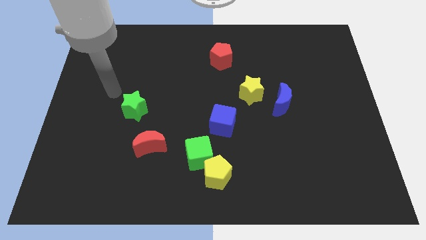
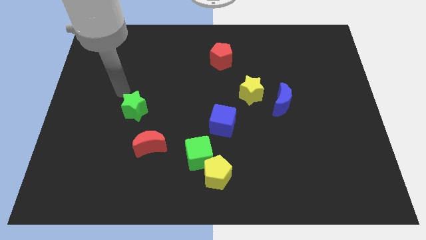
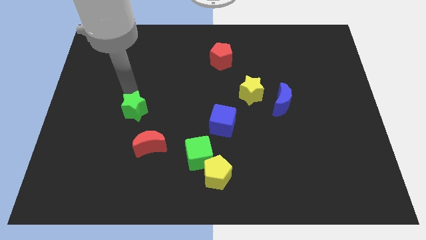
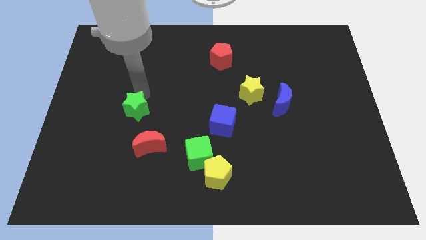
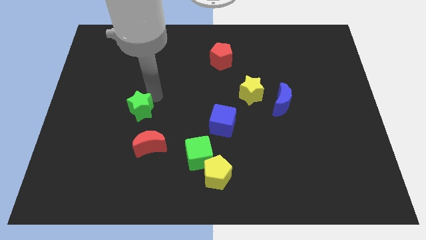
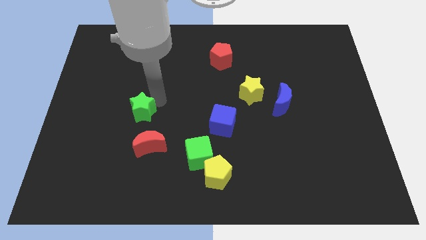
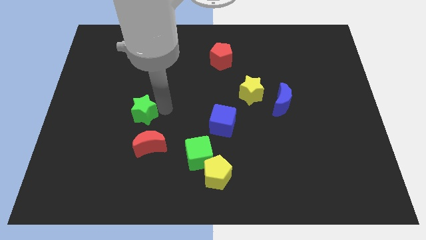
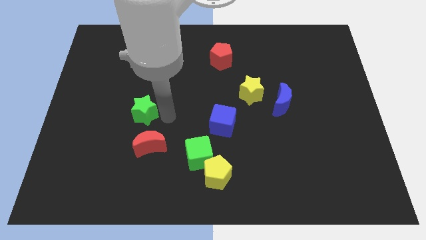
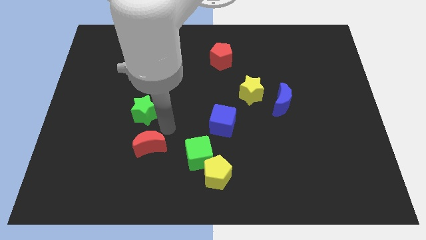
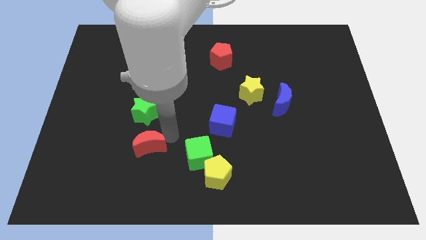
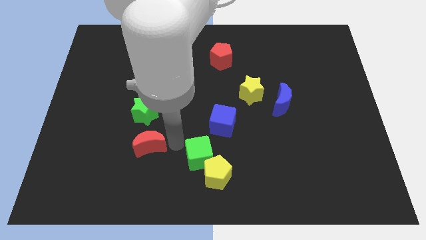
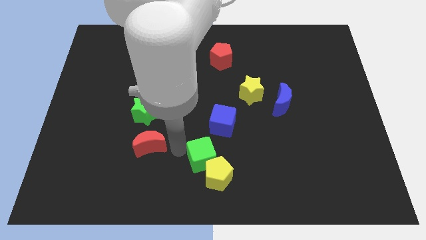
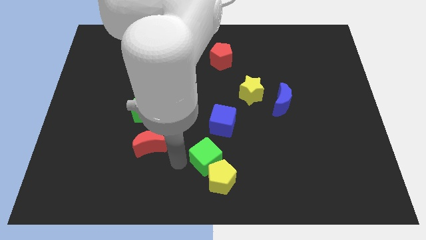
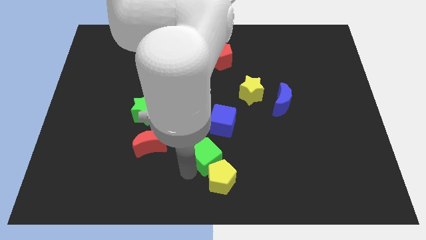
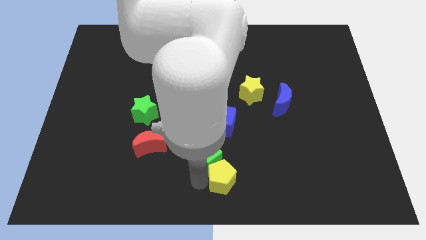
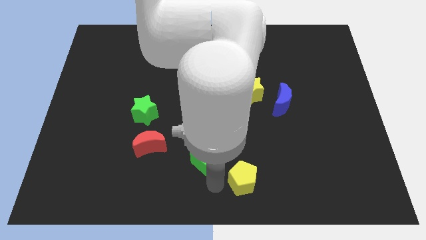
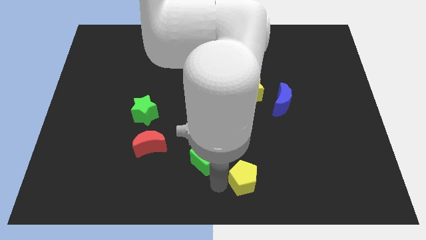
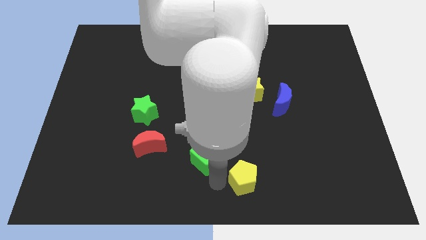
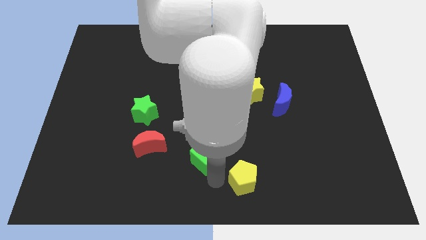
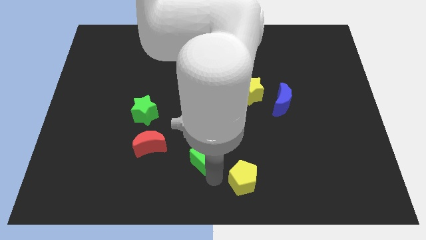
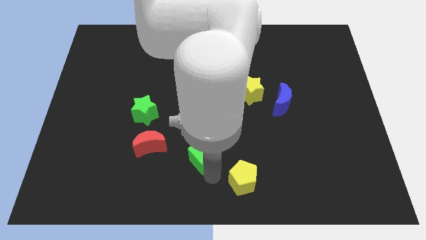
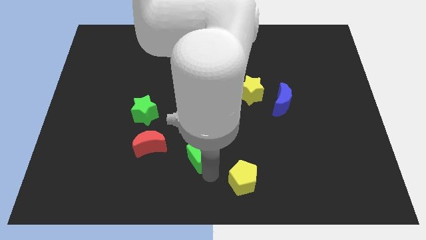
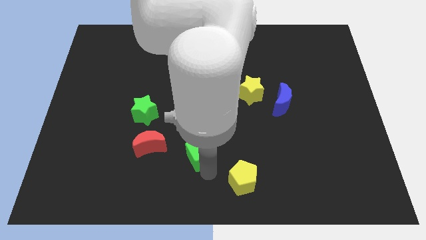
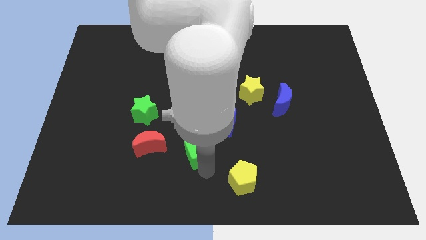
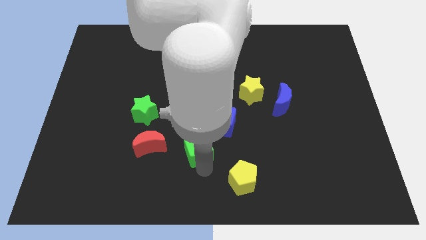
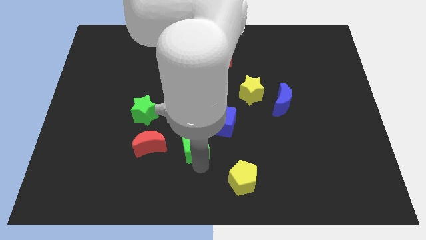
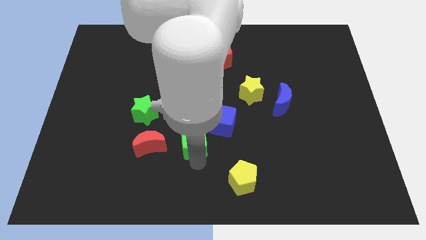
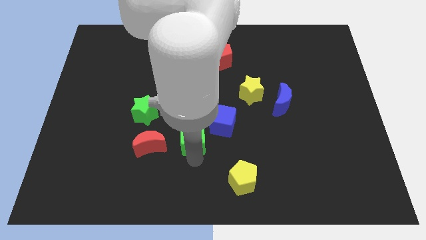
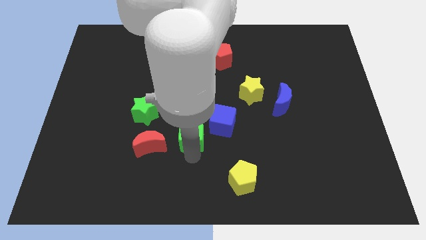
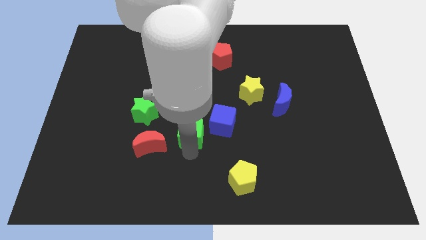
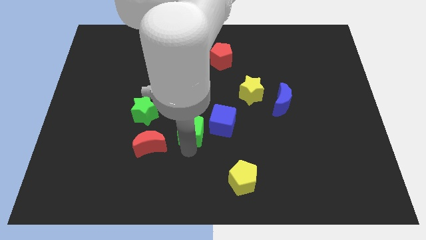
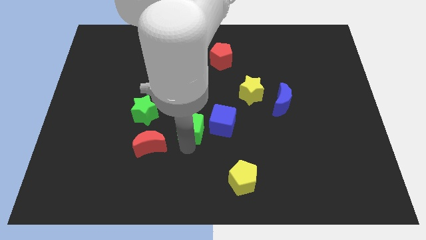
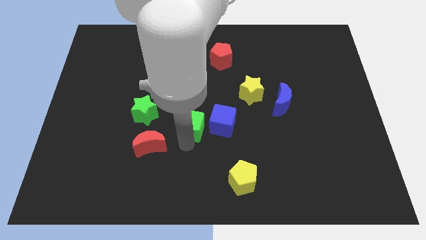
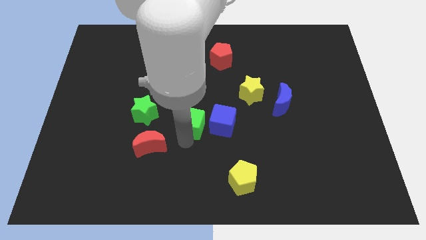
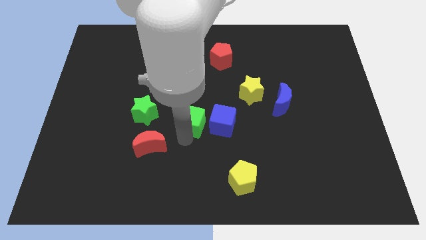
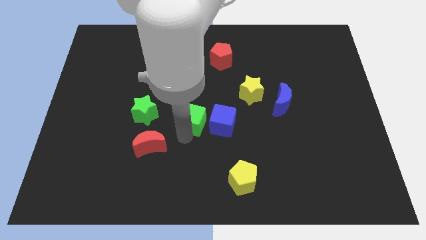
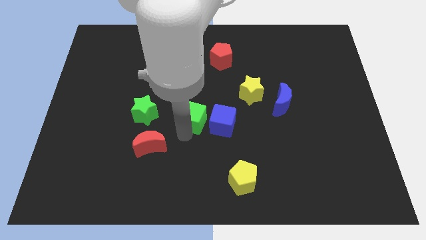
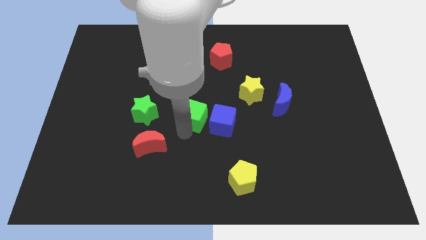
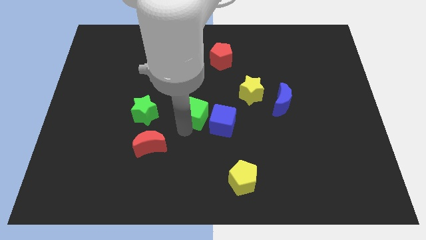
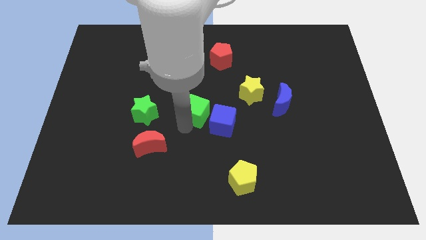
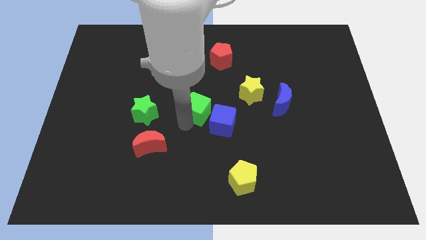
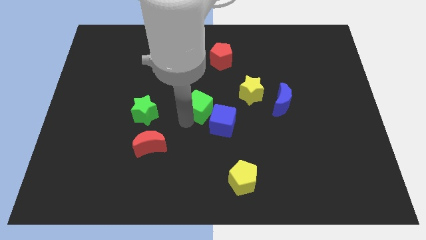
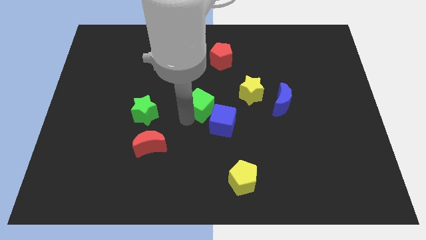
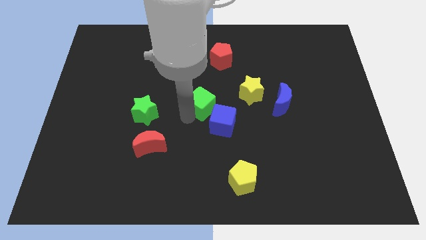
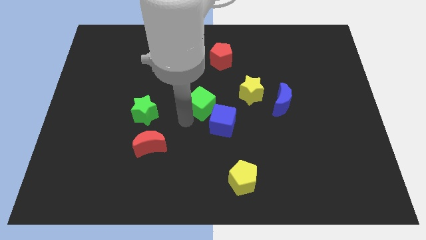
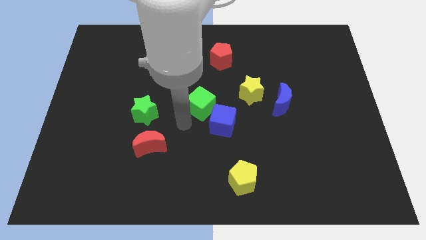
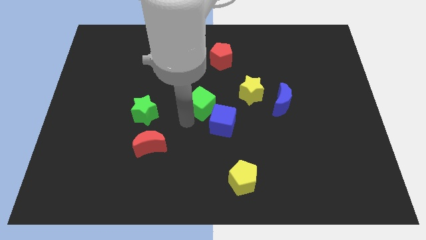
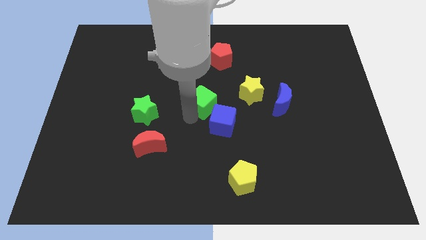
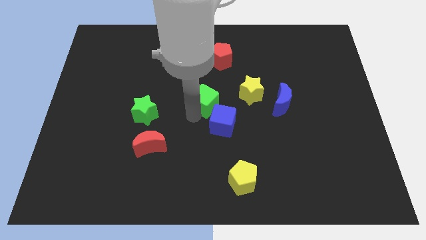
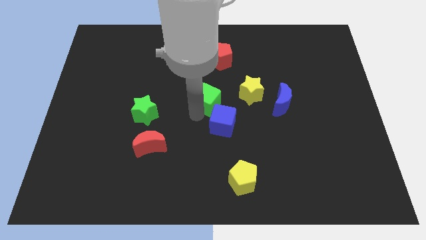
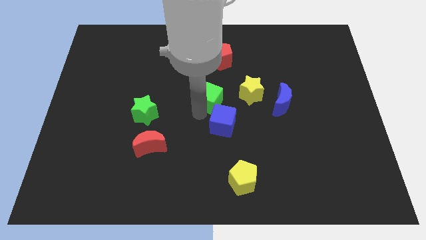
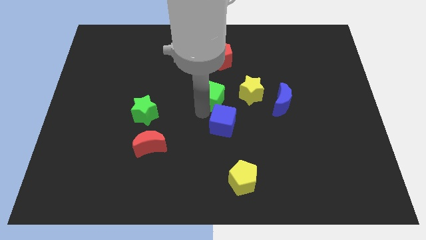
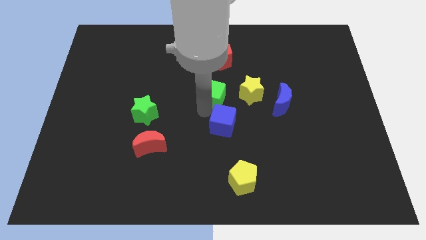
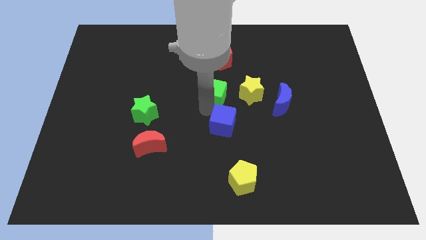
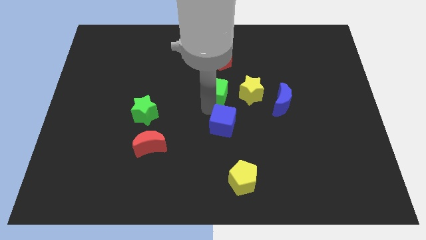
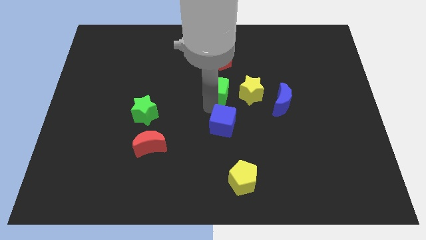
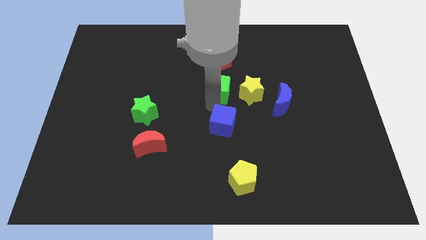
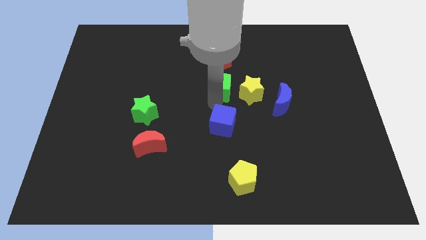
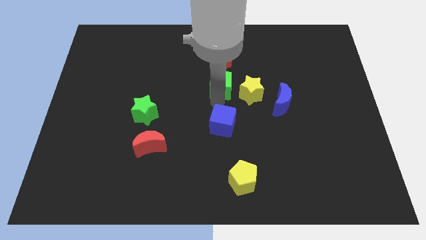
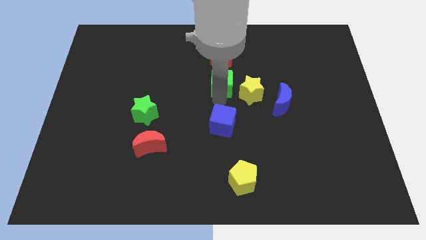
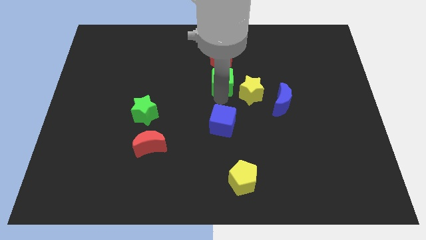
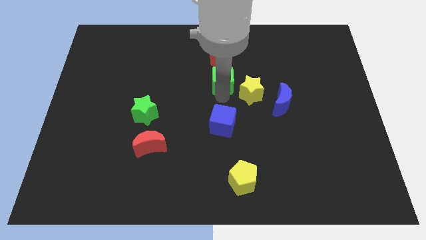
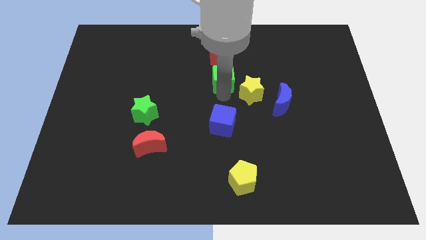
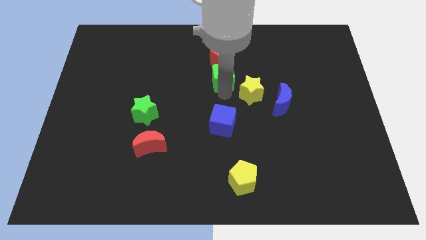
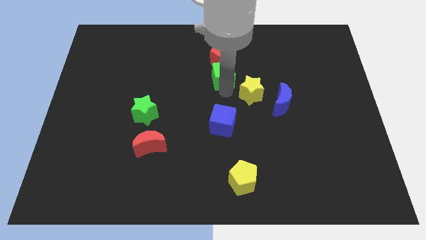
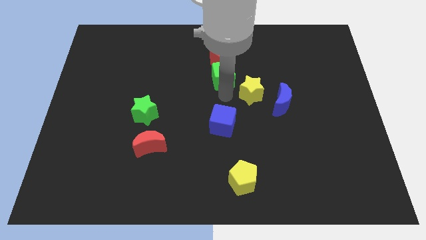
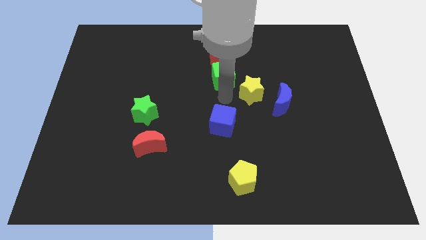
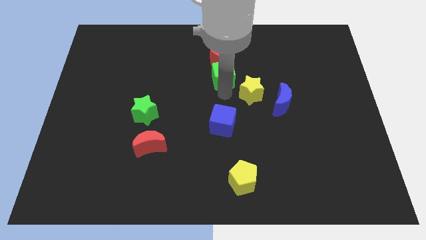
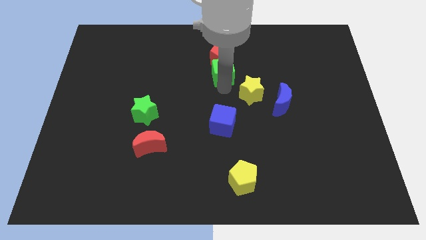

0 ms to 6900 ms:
slide the green cube towards the red pentagon

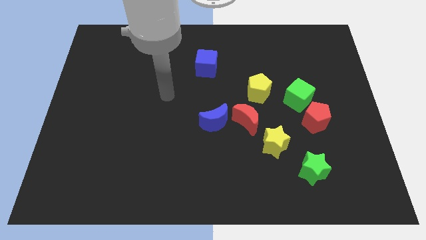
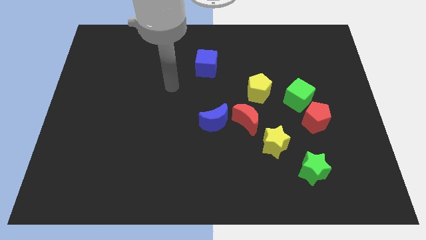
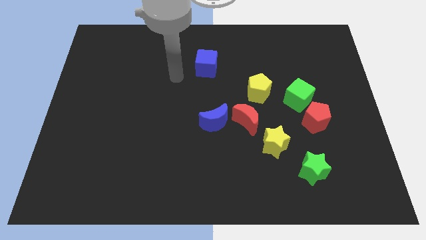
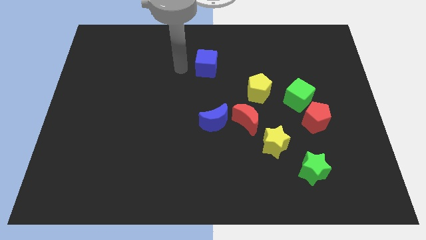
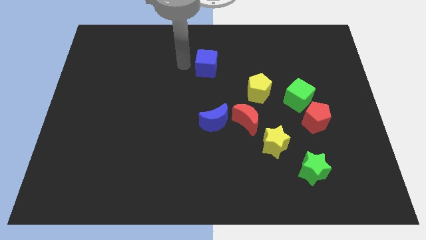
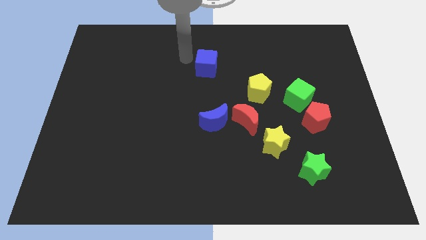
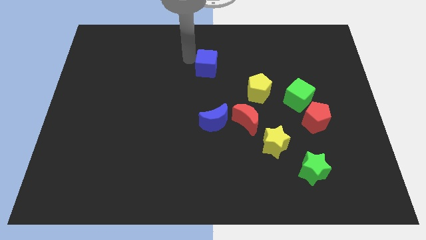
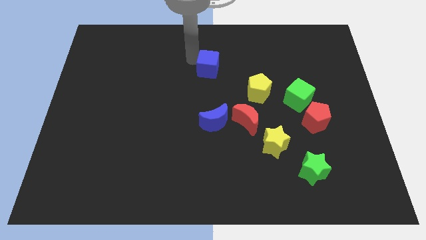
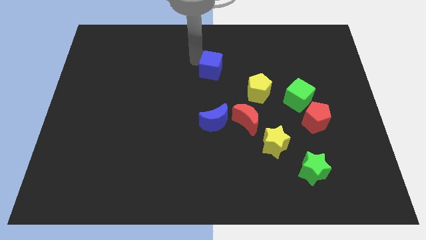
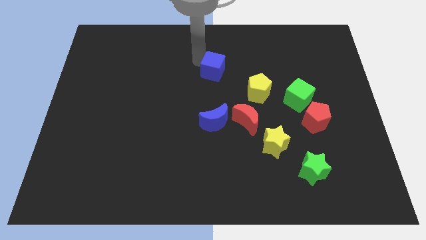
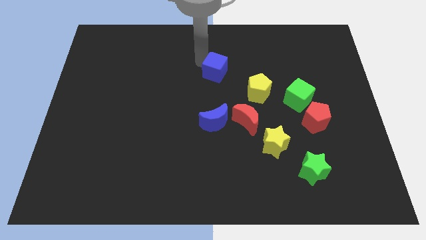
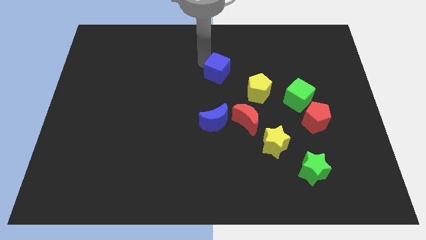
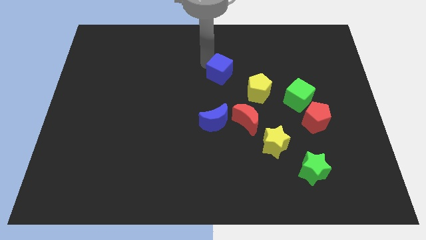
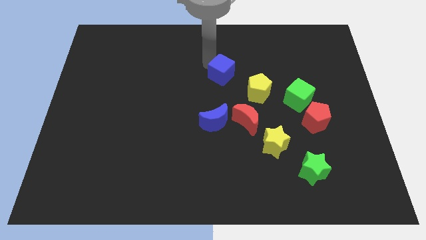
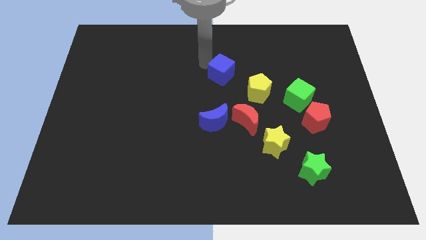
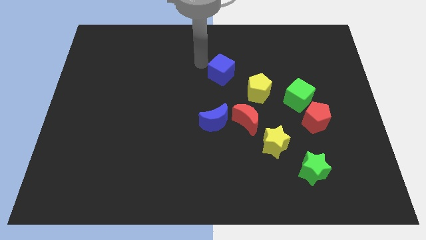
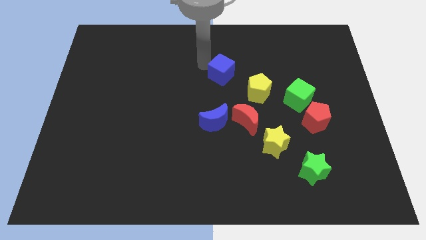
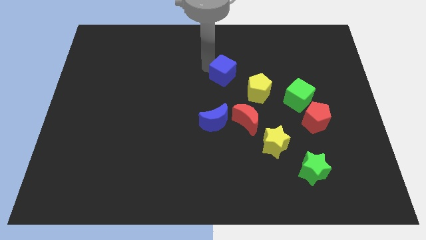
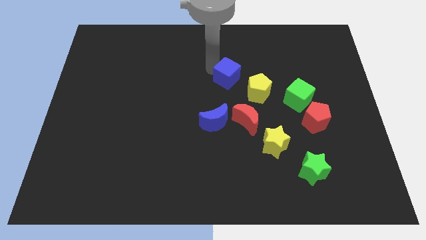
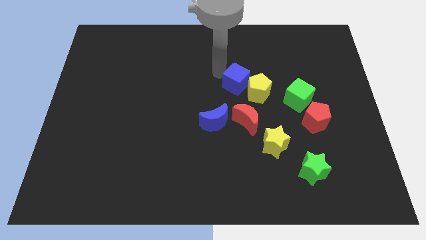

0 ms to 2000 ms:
put the blue cube close to the yellow pentagon

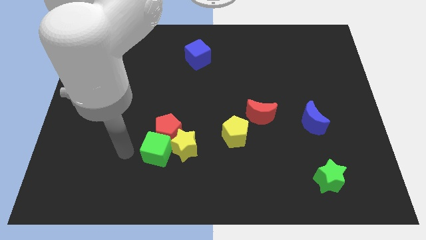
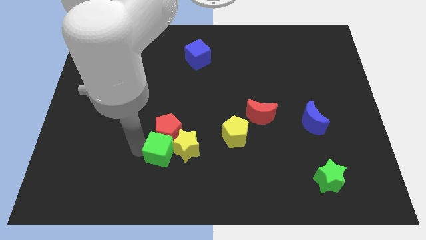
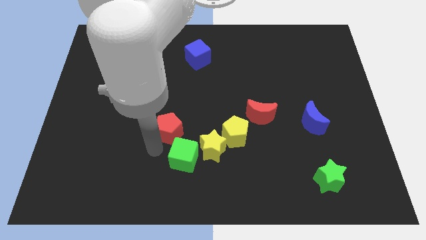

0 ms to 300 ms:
push the yellow star to the yellow pentagon
